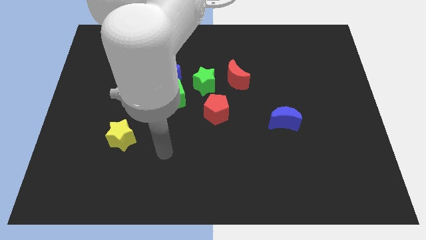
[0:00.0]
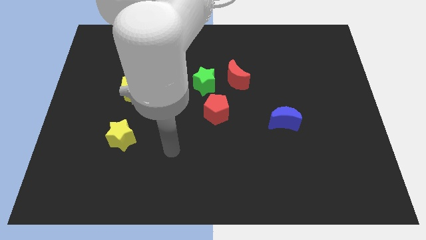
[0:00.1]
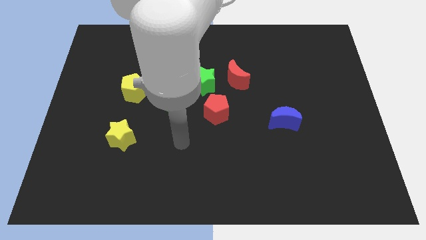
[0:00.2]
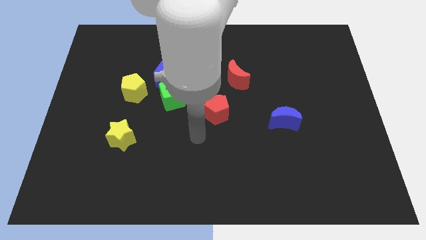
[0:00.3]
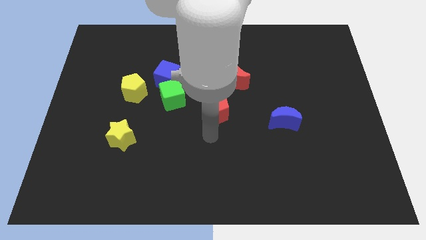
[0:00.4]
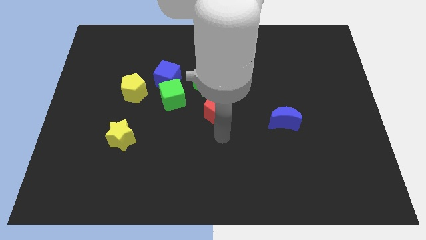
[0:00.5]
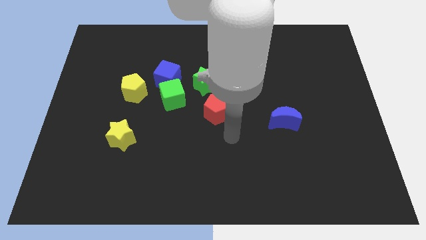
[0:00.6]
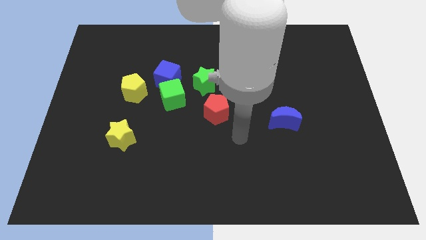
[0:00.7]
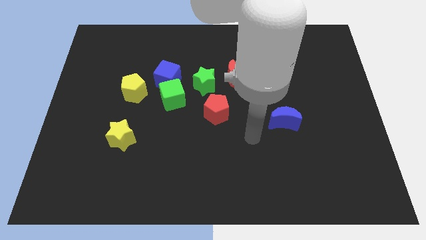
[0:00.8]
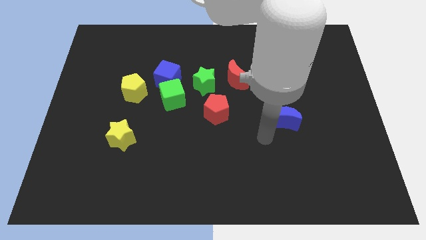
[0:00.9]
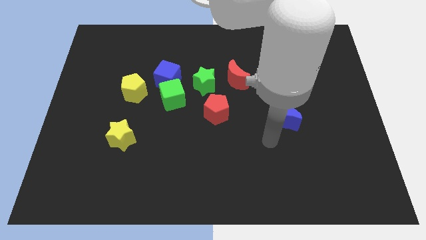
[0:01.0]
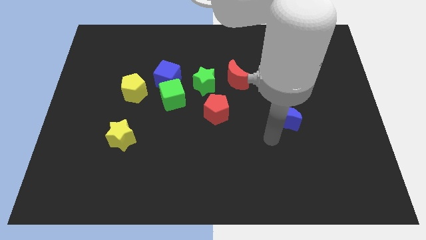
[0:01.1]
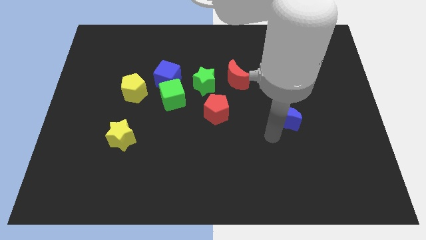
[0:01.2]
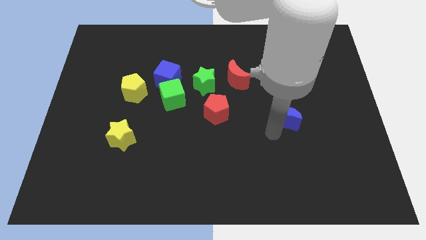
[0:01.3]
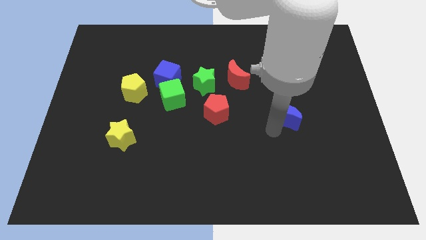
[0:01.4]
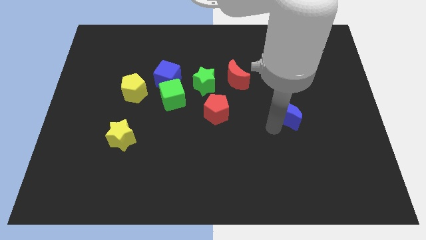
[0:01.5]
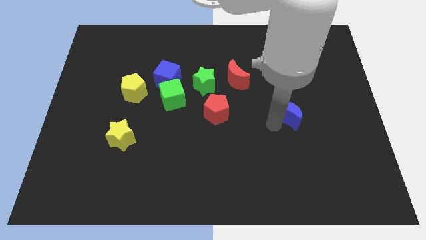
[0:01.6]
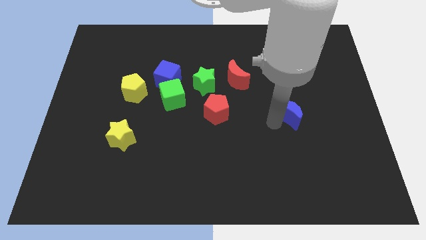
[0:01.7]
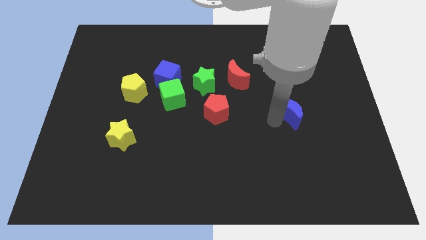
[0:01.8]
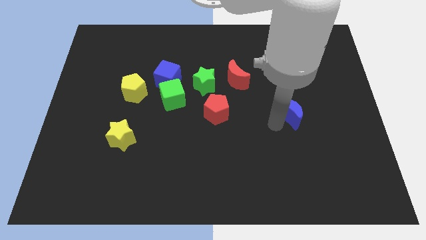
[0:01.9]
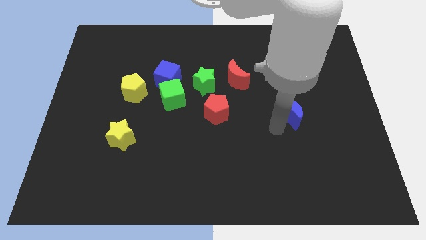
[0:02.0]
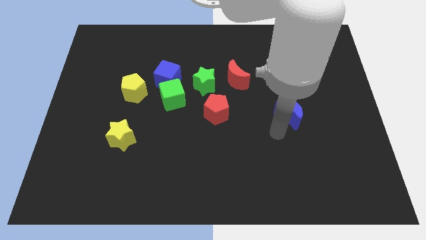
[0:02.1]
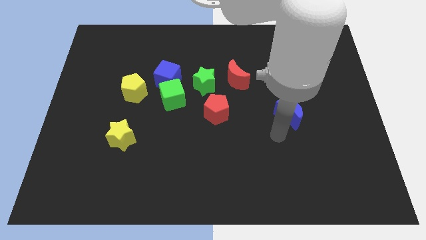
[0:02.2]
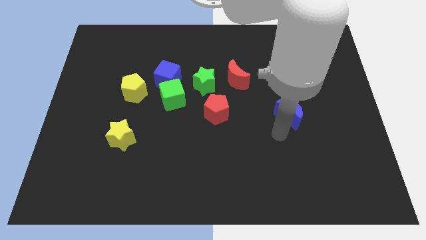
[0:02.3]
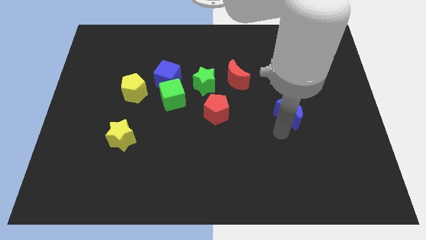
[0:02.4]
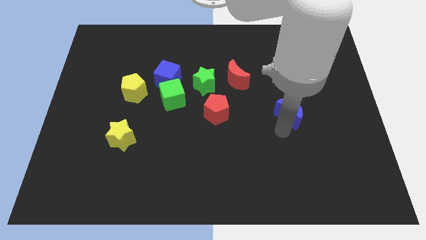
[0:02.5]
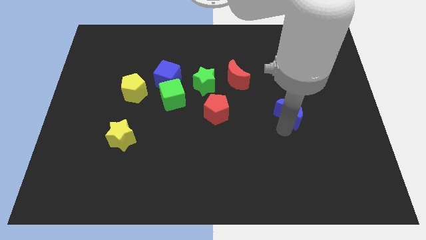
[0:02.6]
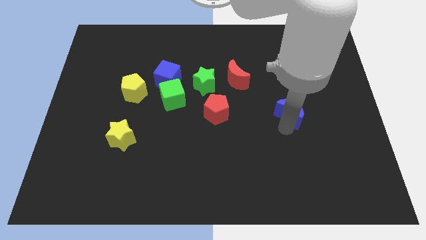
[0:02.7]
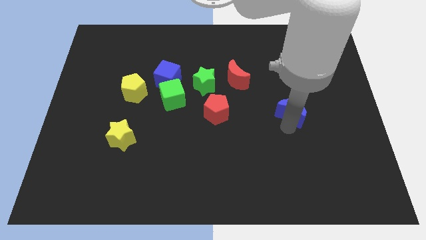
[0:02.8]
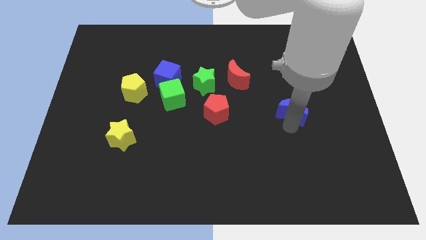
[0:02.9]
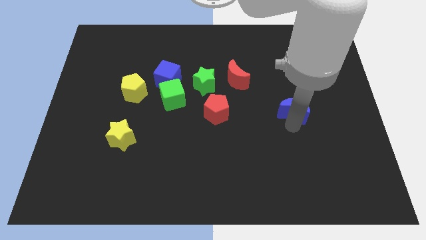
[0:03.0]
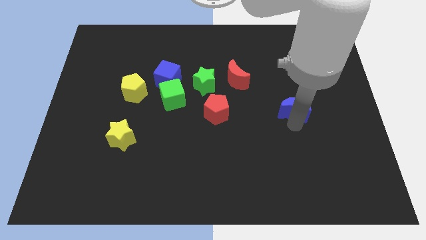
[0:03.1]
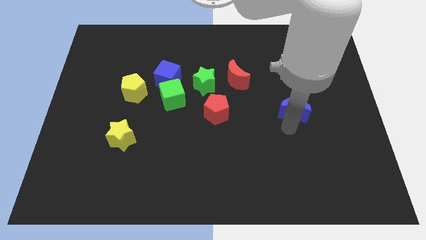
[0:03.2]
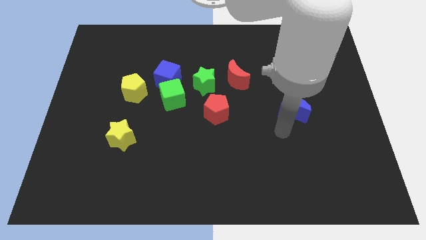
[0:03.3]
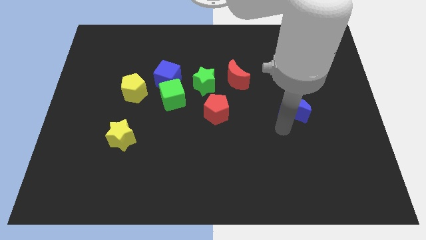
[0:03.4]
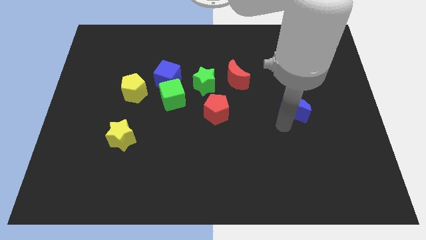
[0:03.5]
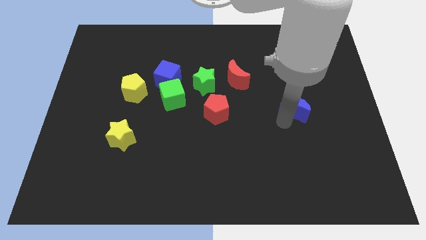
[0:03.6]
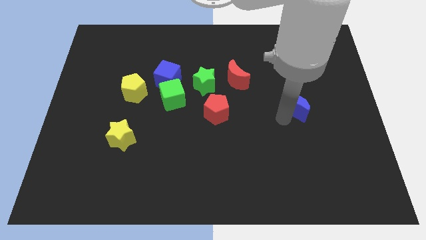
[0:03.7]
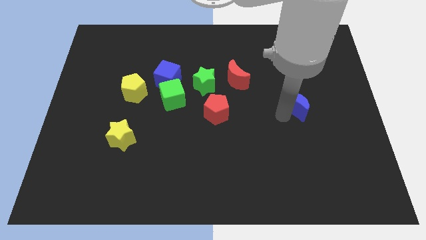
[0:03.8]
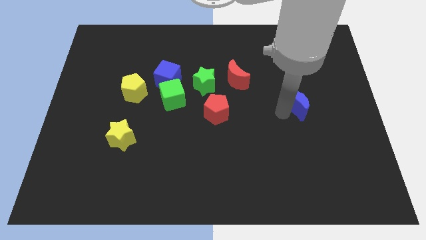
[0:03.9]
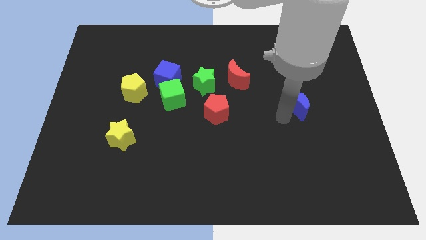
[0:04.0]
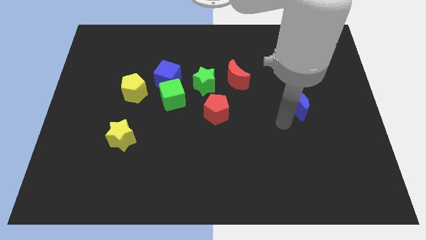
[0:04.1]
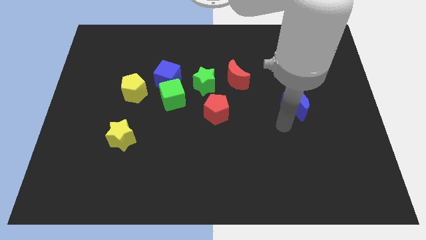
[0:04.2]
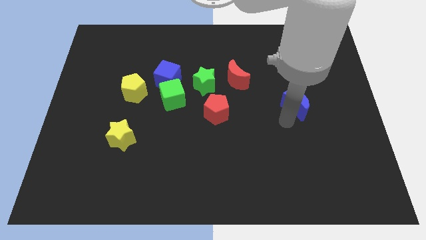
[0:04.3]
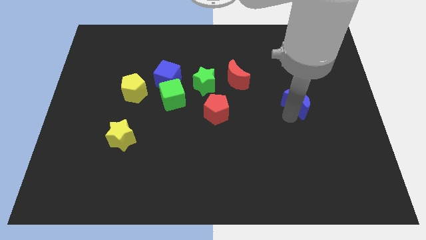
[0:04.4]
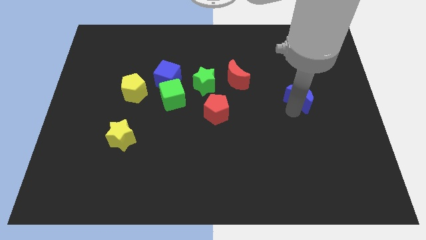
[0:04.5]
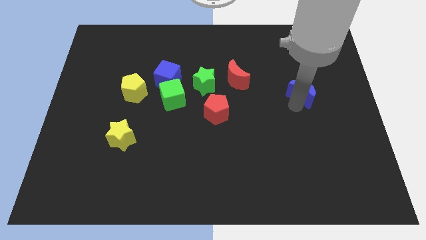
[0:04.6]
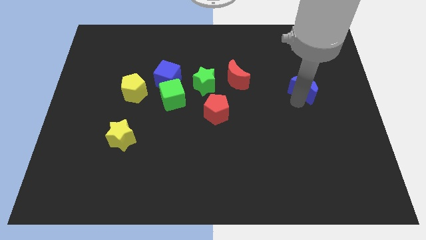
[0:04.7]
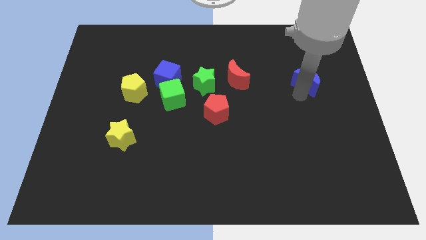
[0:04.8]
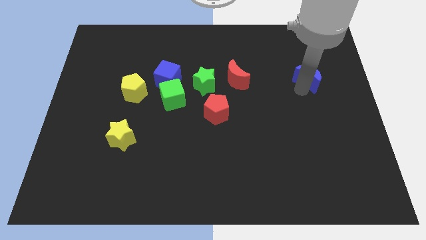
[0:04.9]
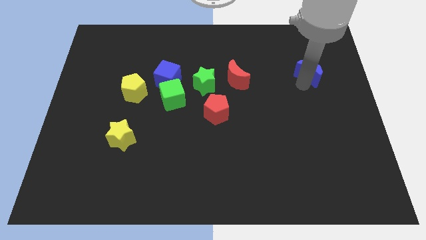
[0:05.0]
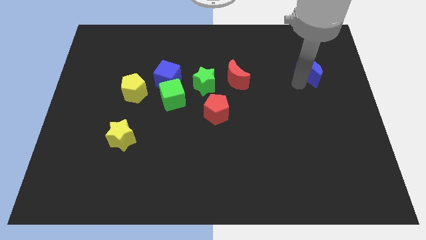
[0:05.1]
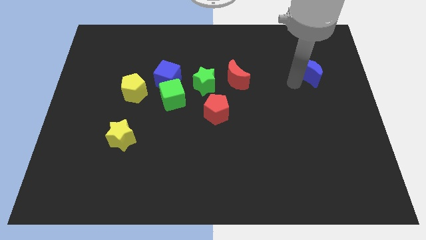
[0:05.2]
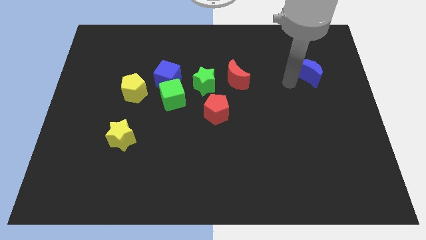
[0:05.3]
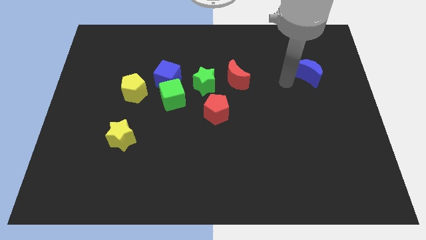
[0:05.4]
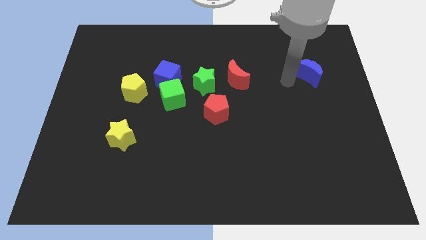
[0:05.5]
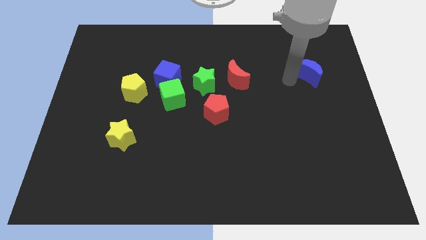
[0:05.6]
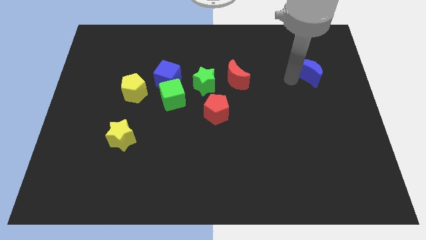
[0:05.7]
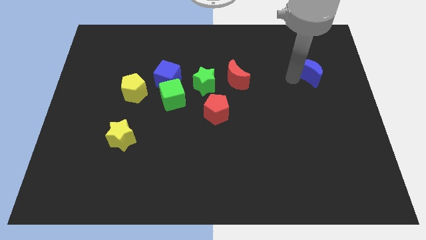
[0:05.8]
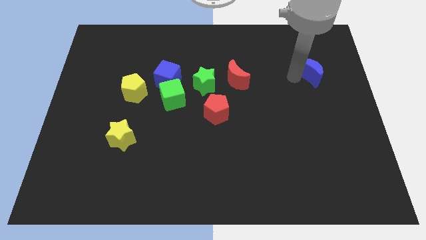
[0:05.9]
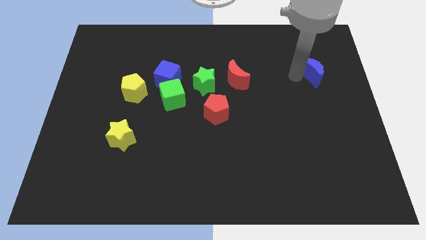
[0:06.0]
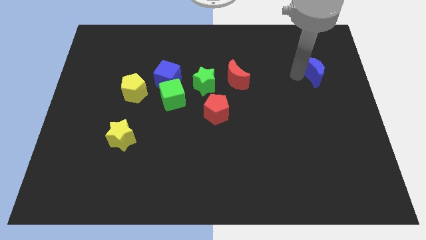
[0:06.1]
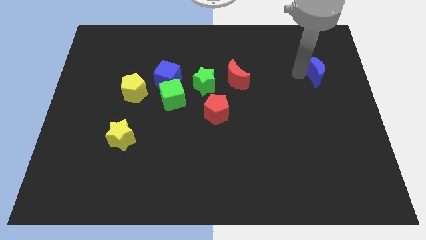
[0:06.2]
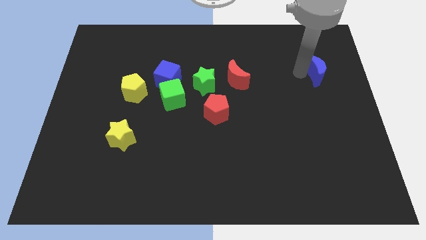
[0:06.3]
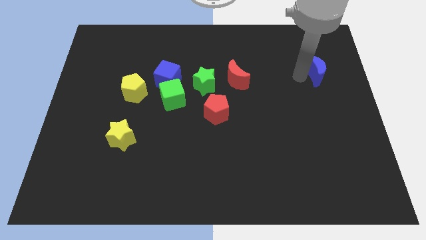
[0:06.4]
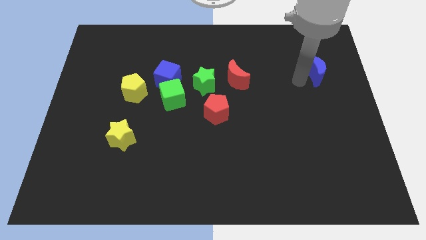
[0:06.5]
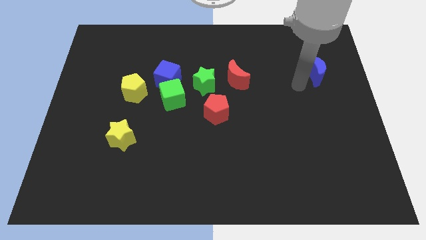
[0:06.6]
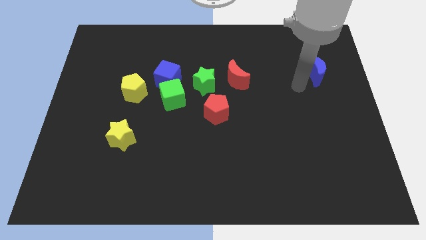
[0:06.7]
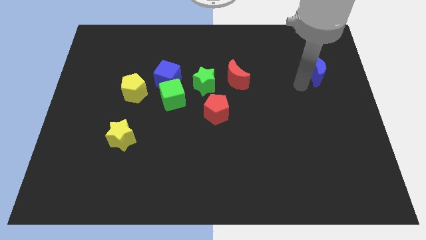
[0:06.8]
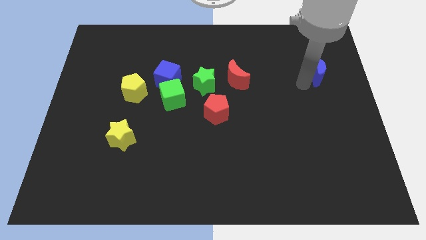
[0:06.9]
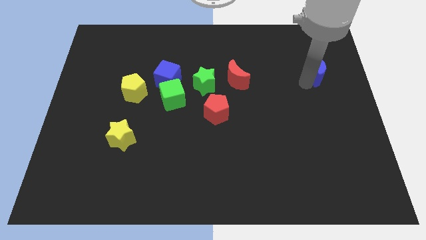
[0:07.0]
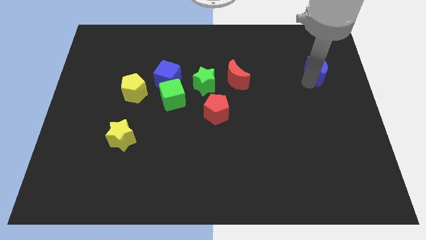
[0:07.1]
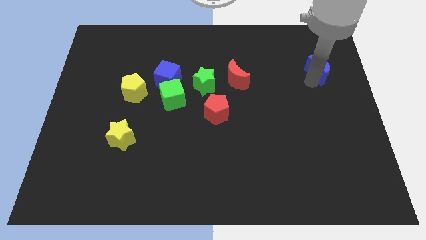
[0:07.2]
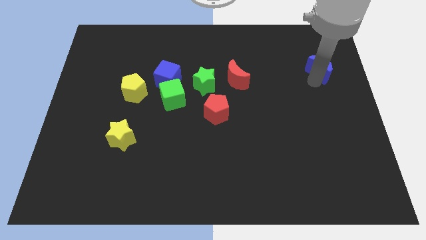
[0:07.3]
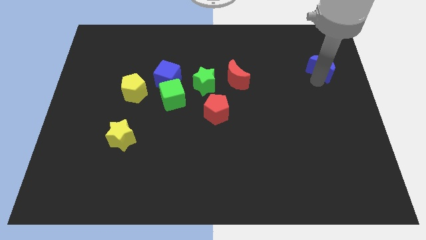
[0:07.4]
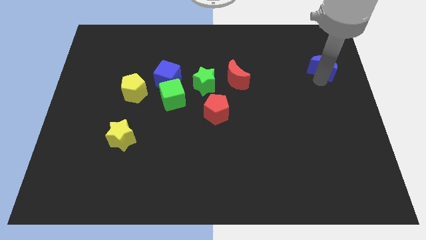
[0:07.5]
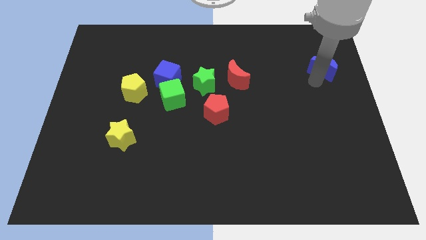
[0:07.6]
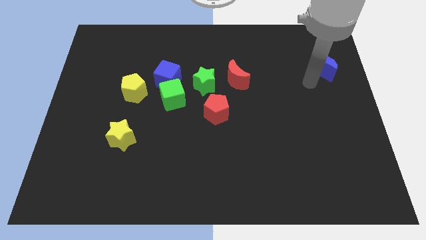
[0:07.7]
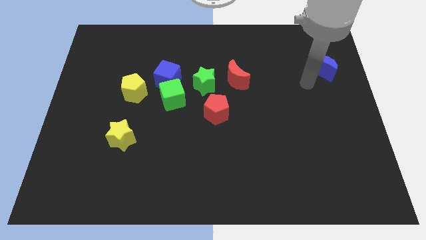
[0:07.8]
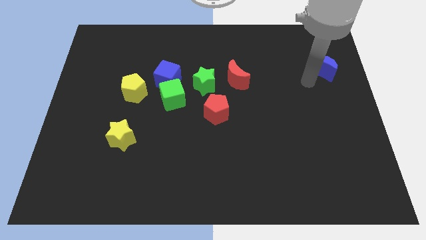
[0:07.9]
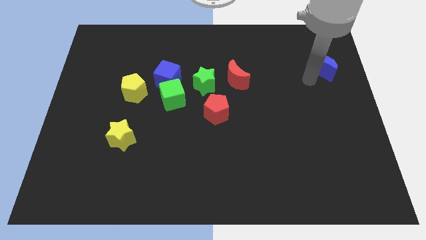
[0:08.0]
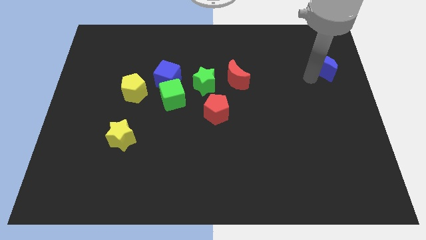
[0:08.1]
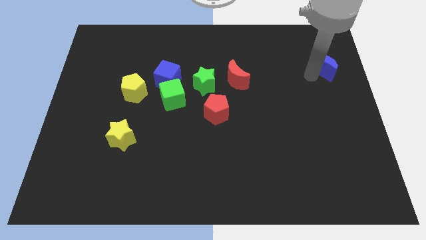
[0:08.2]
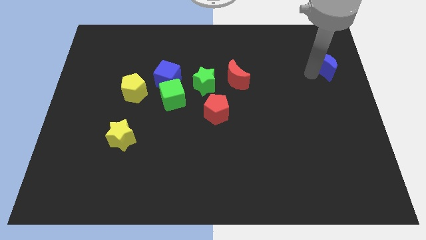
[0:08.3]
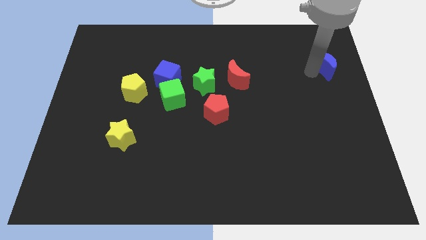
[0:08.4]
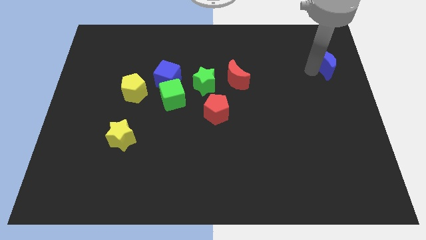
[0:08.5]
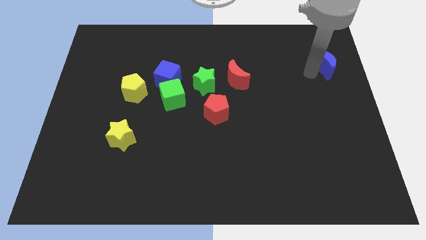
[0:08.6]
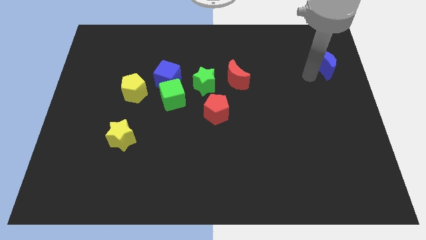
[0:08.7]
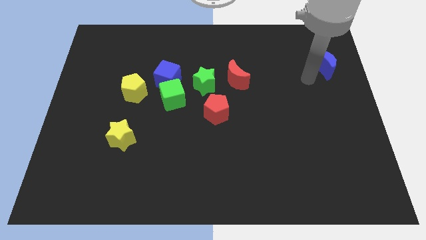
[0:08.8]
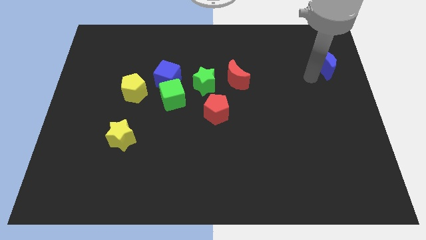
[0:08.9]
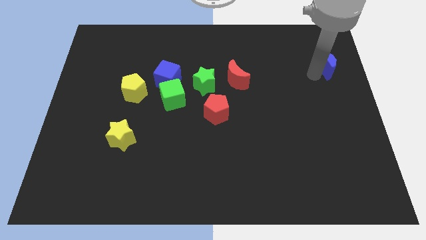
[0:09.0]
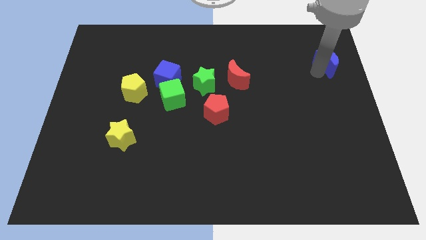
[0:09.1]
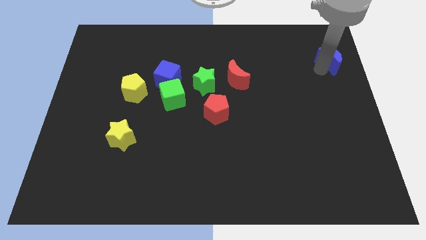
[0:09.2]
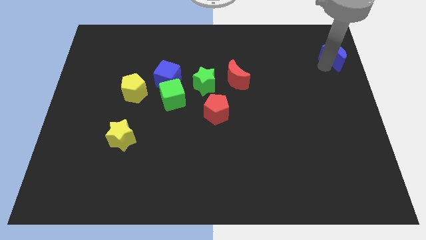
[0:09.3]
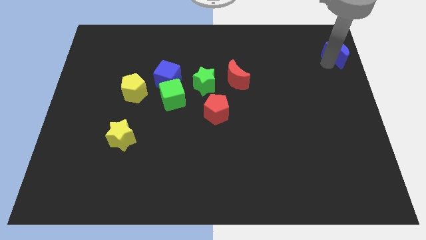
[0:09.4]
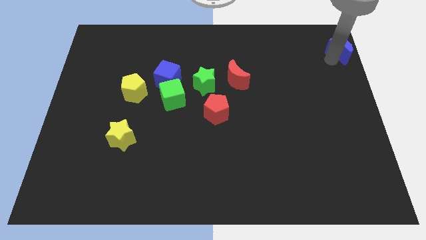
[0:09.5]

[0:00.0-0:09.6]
put the blue moon to the top right of the board
